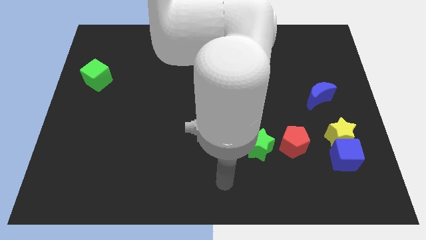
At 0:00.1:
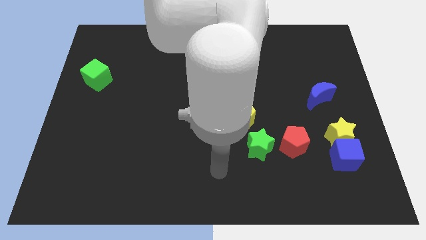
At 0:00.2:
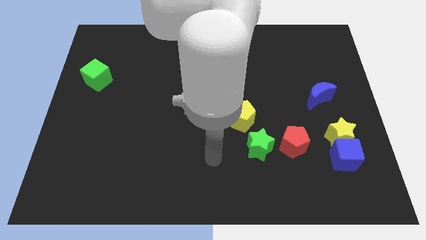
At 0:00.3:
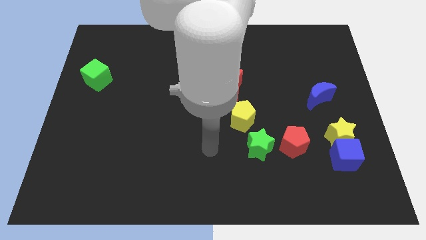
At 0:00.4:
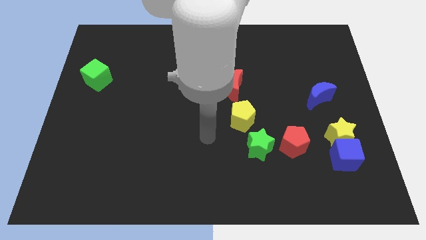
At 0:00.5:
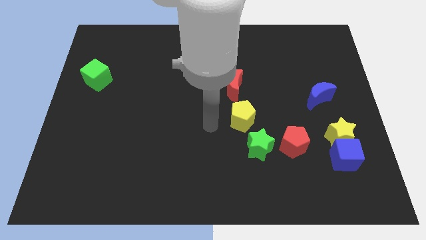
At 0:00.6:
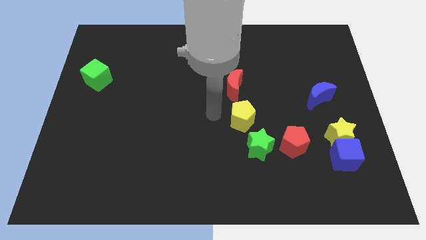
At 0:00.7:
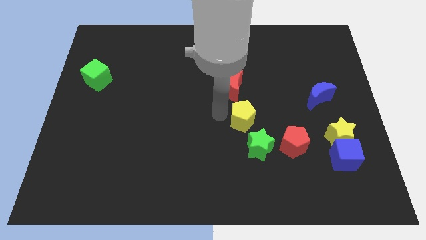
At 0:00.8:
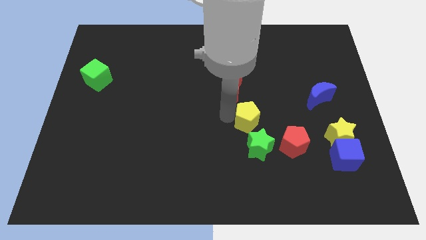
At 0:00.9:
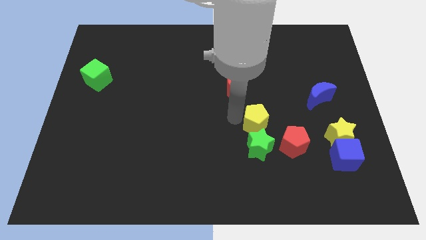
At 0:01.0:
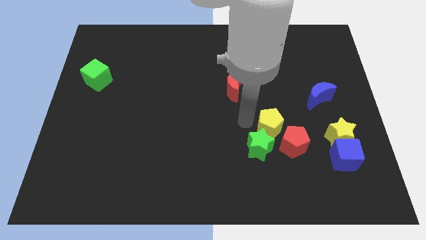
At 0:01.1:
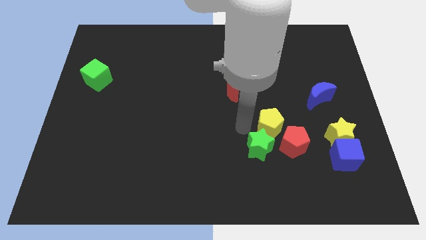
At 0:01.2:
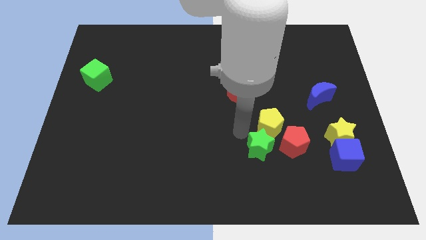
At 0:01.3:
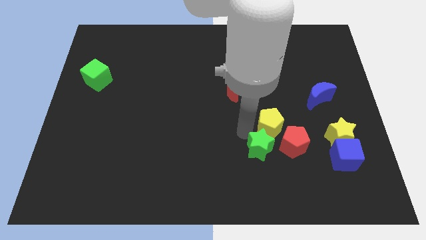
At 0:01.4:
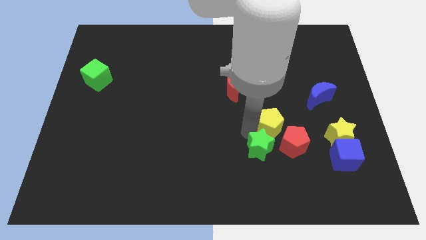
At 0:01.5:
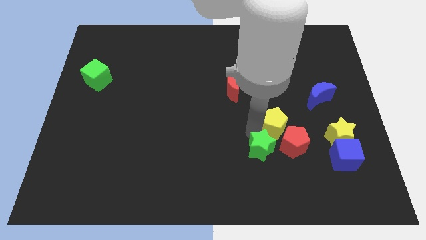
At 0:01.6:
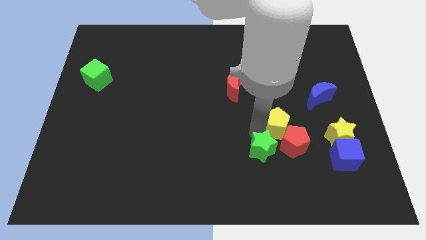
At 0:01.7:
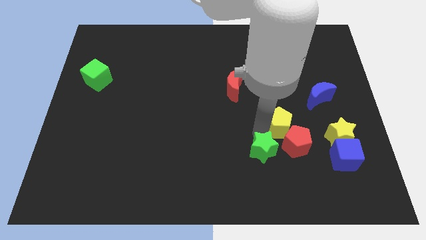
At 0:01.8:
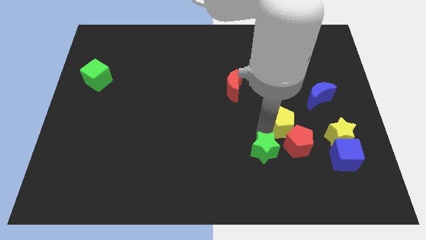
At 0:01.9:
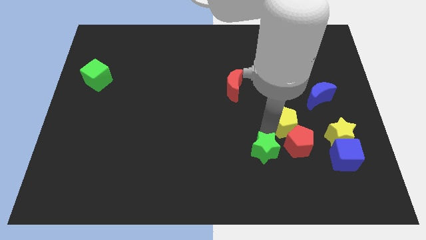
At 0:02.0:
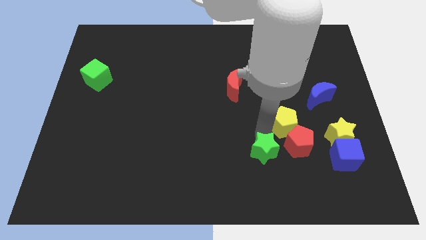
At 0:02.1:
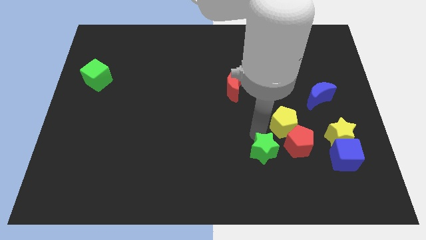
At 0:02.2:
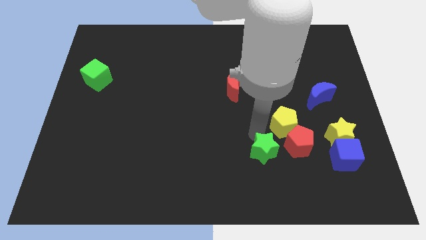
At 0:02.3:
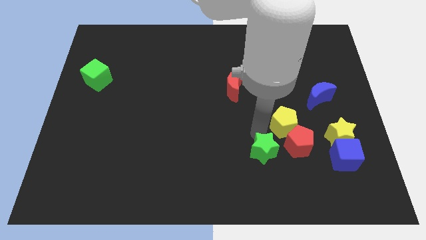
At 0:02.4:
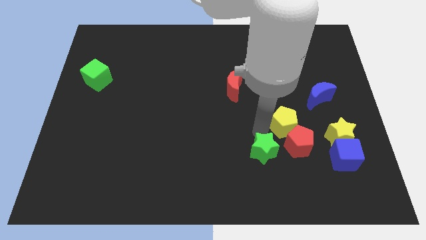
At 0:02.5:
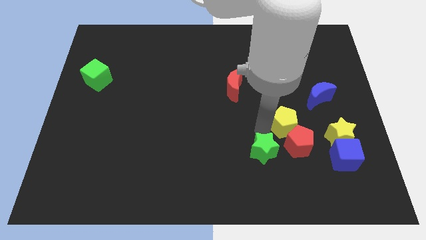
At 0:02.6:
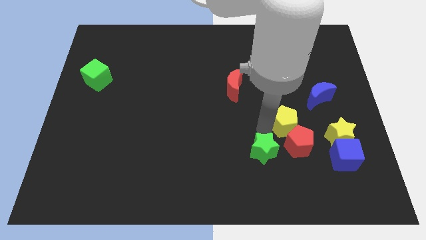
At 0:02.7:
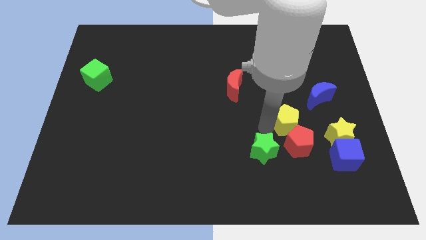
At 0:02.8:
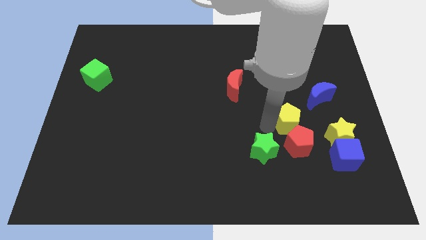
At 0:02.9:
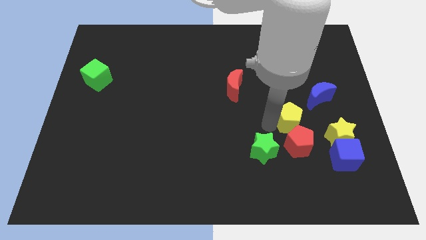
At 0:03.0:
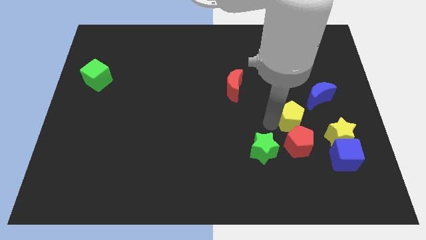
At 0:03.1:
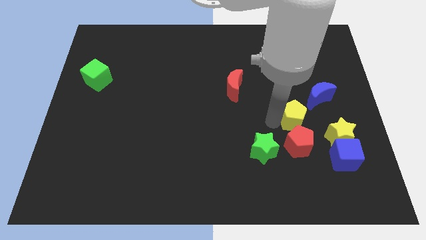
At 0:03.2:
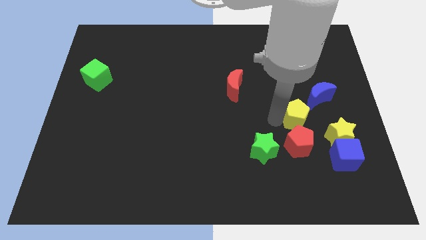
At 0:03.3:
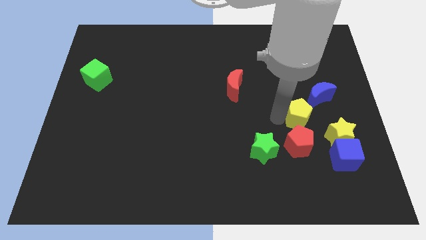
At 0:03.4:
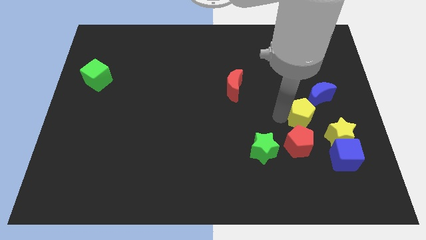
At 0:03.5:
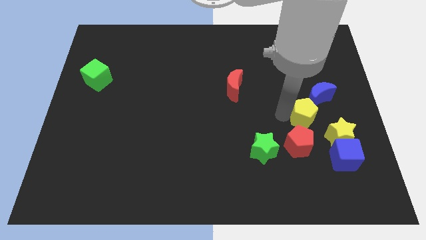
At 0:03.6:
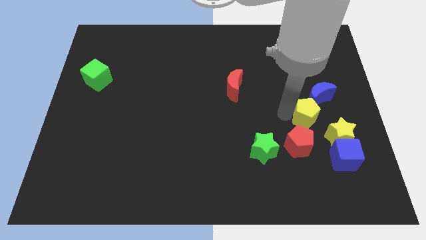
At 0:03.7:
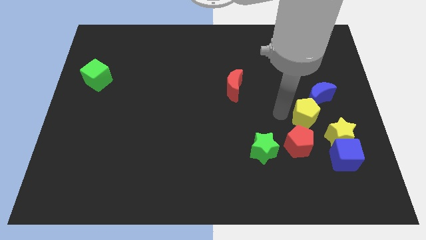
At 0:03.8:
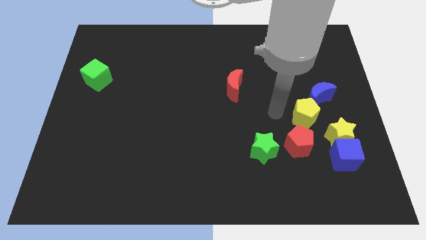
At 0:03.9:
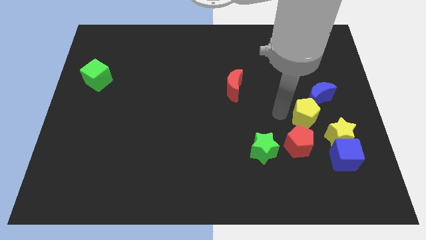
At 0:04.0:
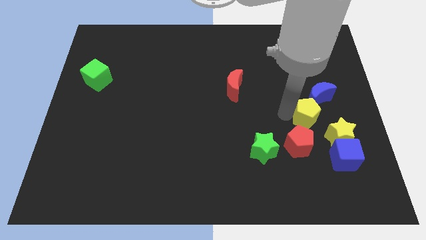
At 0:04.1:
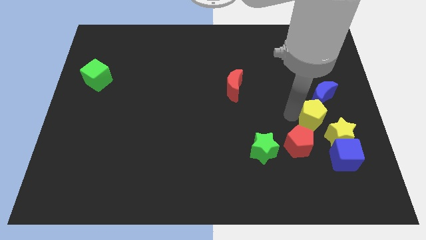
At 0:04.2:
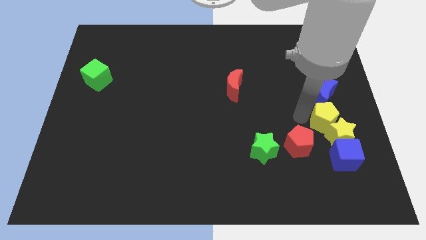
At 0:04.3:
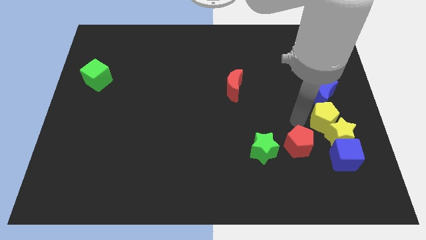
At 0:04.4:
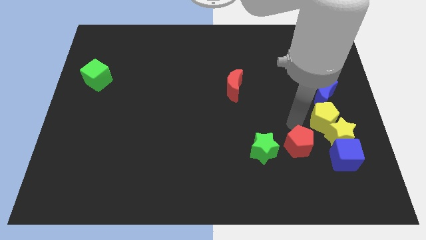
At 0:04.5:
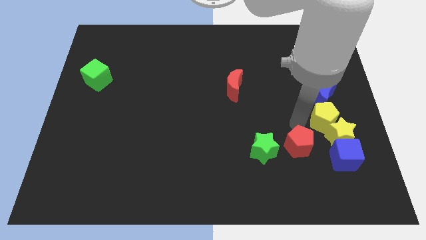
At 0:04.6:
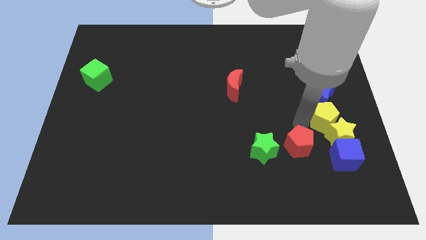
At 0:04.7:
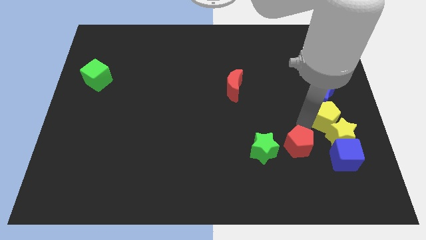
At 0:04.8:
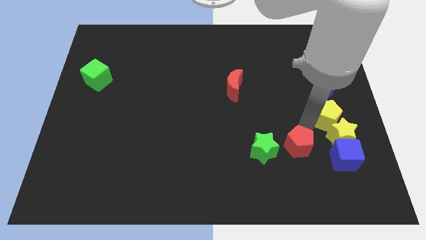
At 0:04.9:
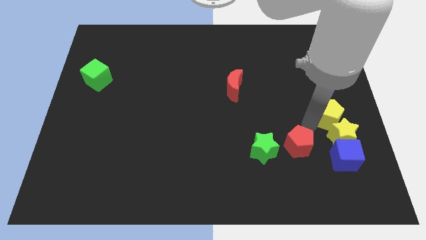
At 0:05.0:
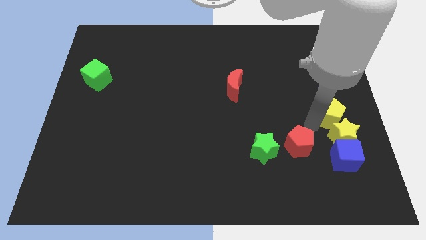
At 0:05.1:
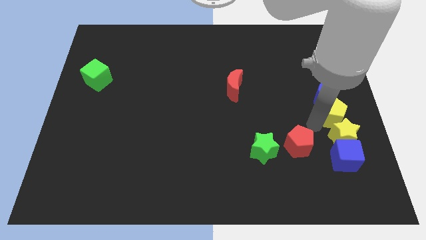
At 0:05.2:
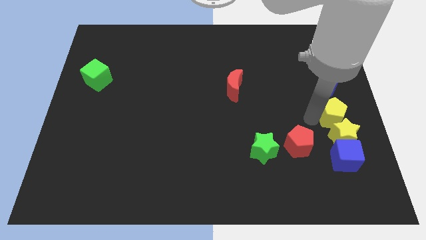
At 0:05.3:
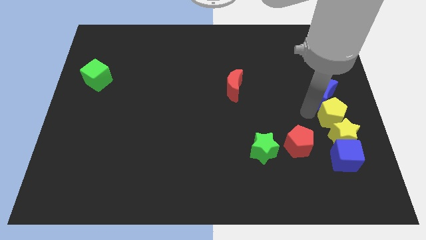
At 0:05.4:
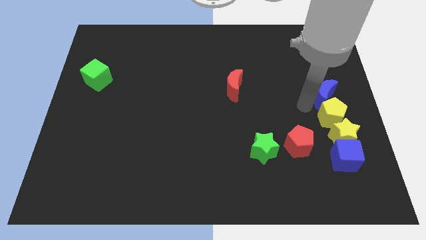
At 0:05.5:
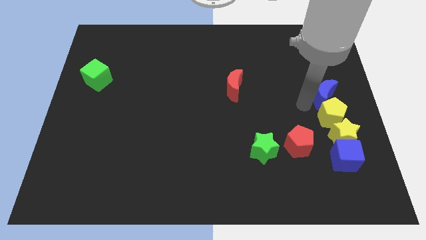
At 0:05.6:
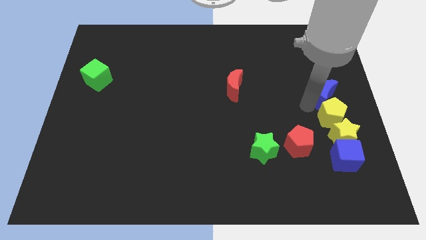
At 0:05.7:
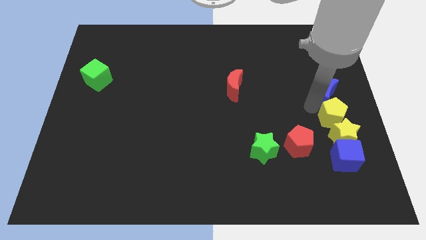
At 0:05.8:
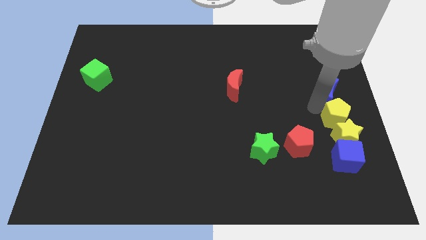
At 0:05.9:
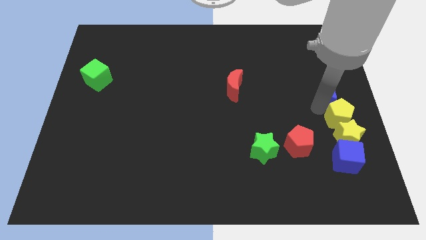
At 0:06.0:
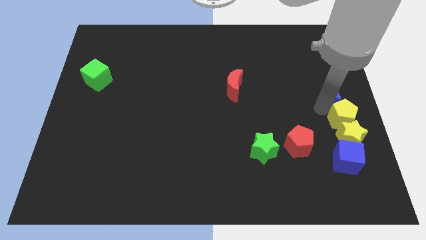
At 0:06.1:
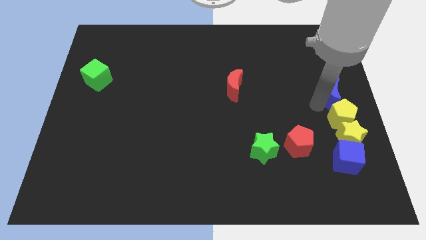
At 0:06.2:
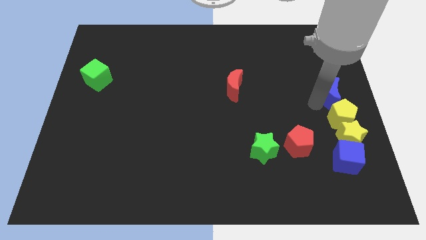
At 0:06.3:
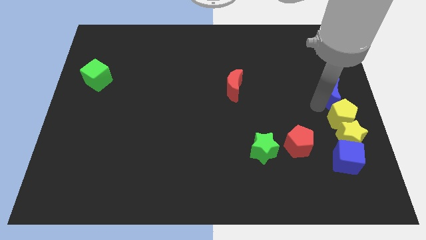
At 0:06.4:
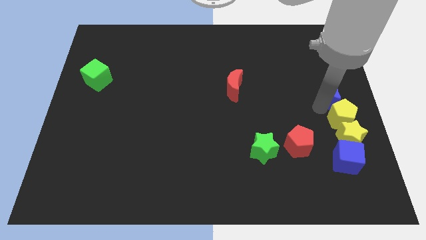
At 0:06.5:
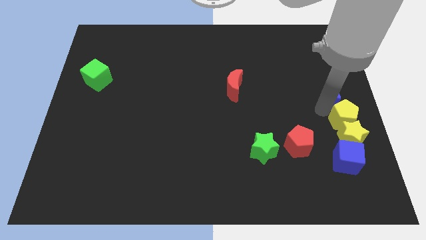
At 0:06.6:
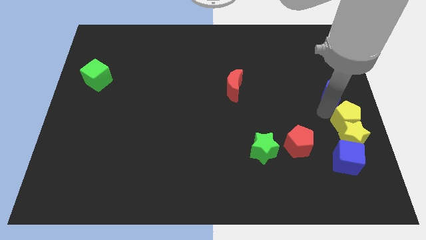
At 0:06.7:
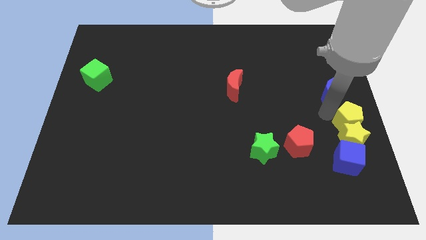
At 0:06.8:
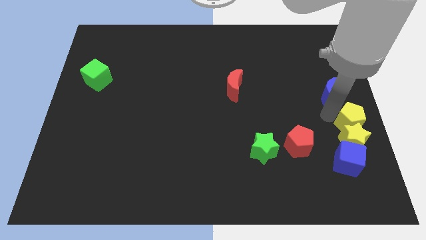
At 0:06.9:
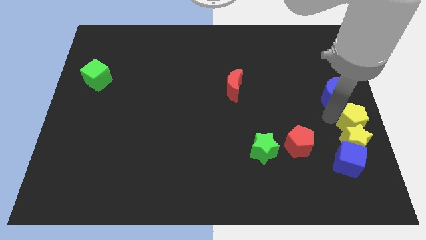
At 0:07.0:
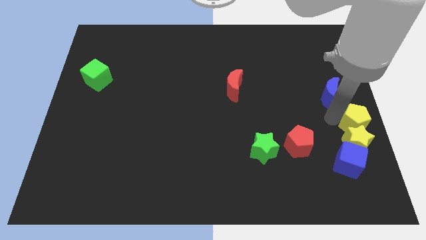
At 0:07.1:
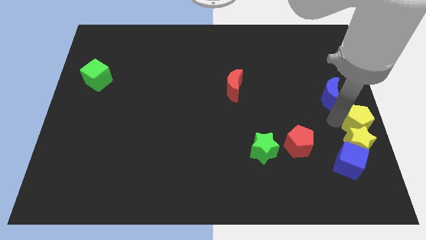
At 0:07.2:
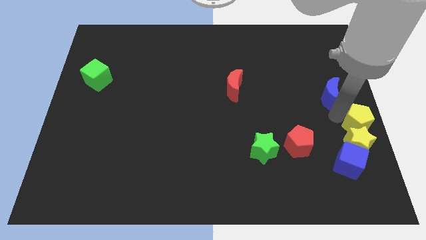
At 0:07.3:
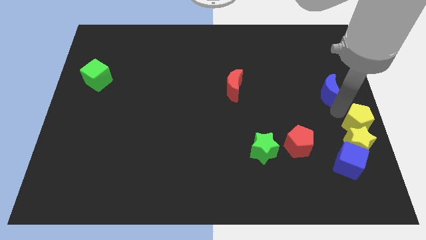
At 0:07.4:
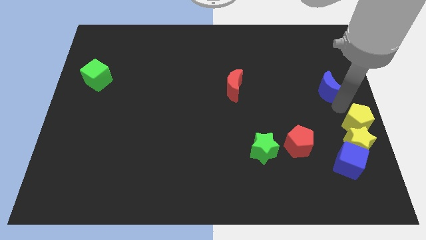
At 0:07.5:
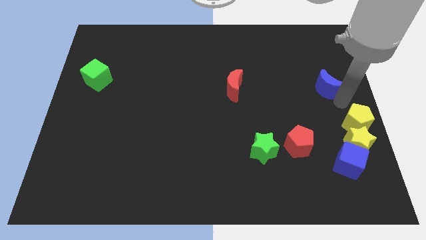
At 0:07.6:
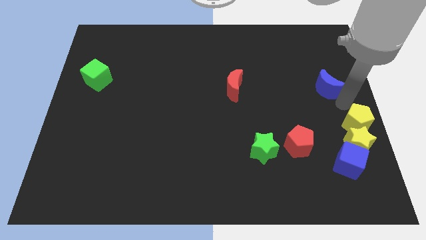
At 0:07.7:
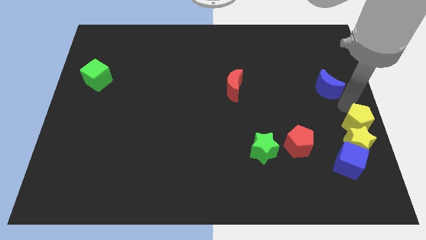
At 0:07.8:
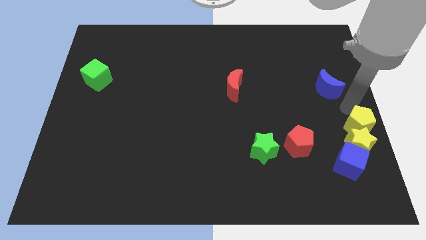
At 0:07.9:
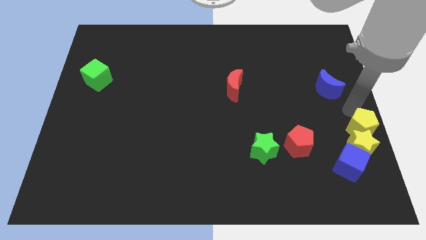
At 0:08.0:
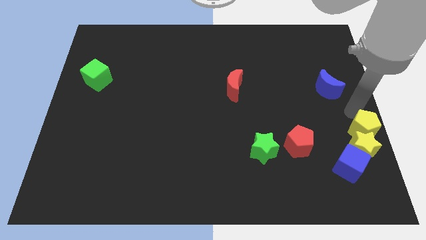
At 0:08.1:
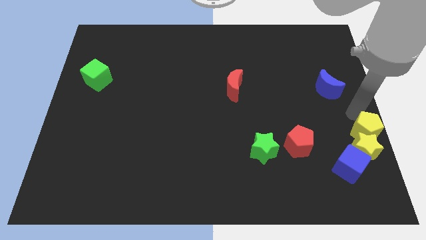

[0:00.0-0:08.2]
move the yellow pentagon to the right of the red pentagon

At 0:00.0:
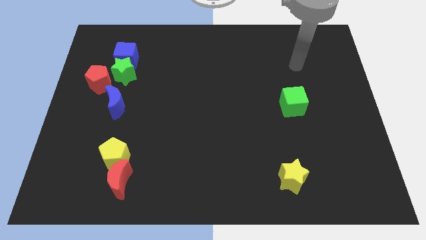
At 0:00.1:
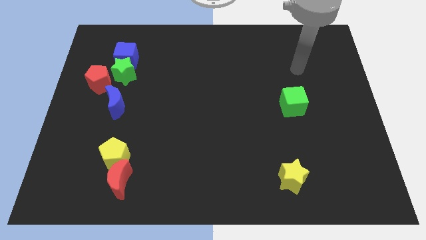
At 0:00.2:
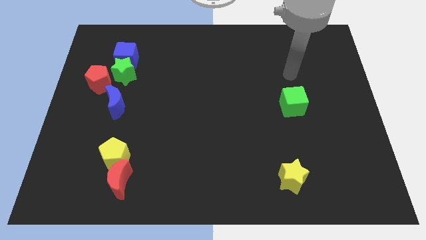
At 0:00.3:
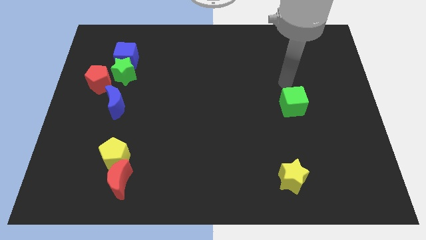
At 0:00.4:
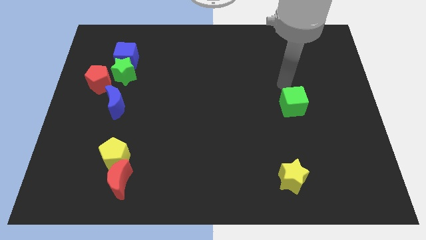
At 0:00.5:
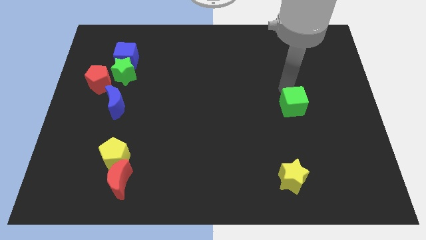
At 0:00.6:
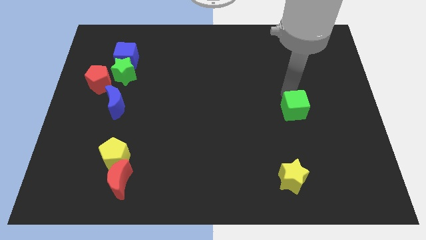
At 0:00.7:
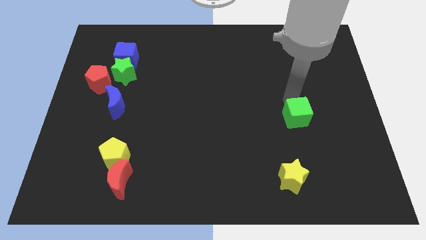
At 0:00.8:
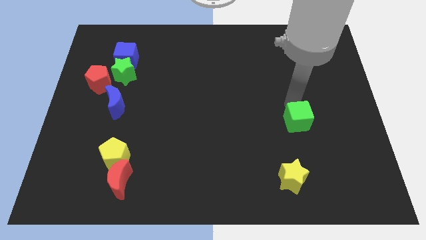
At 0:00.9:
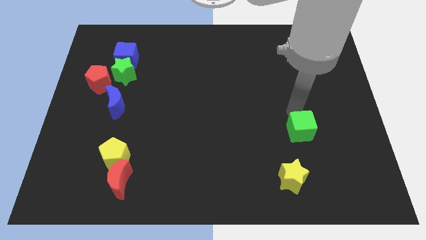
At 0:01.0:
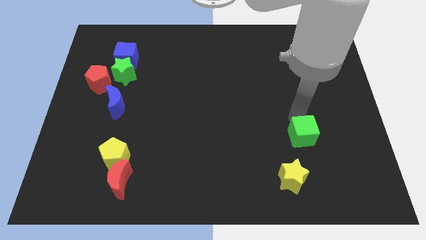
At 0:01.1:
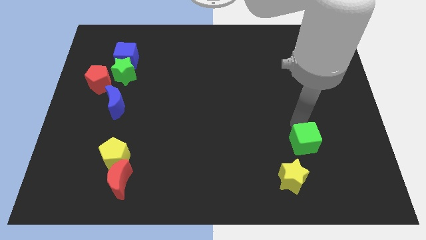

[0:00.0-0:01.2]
move the green cube to the top right side of the yellow star
